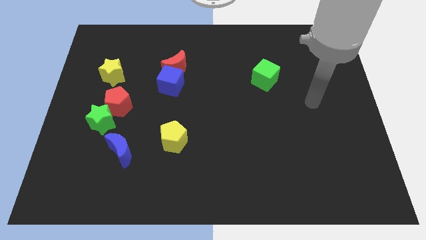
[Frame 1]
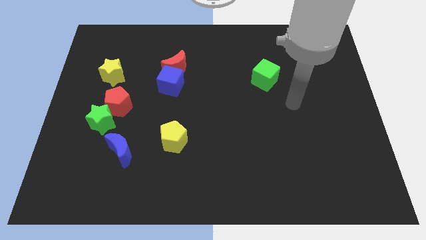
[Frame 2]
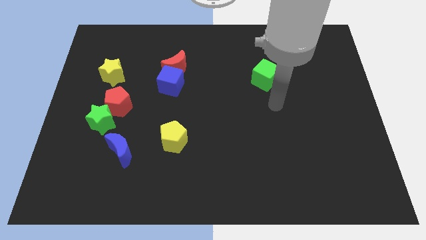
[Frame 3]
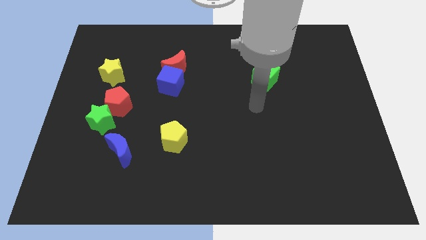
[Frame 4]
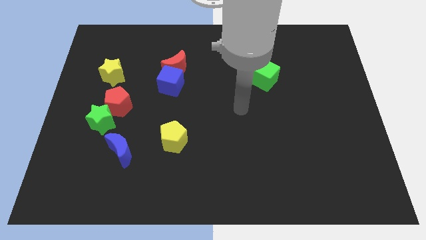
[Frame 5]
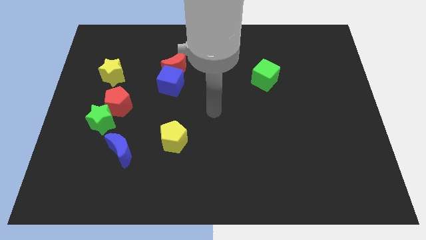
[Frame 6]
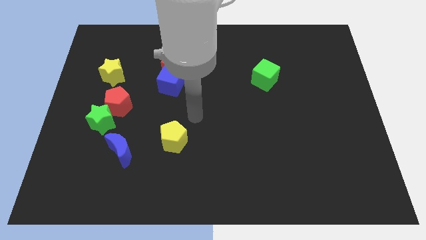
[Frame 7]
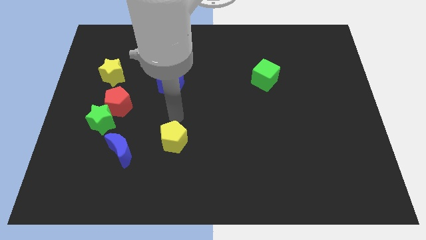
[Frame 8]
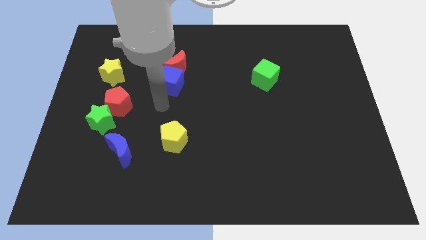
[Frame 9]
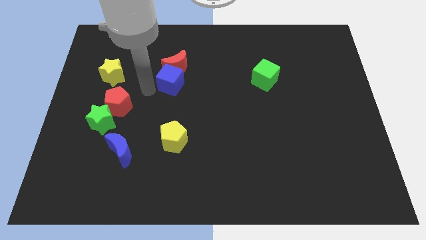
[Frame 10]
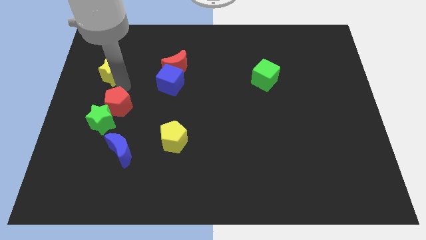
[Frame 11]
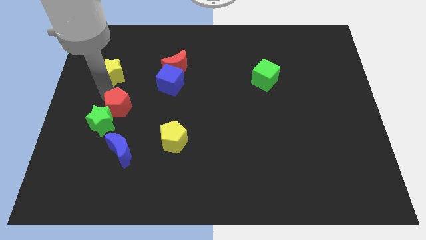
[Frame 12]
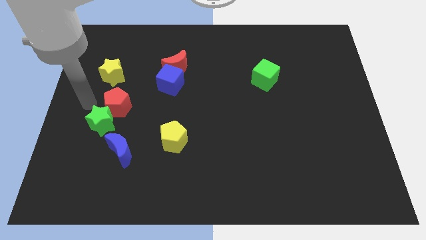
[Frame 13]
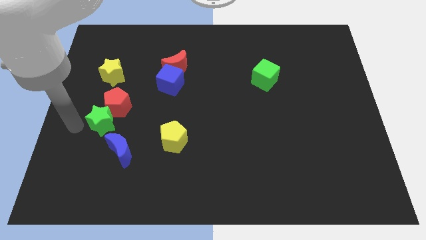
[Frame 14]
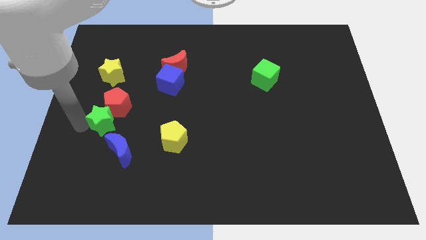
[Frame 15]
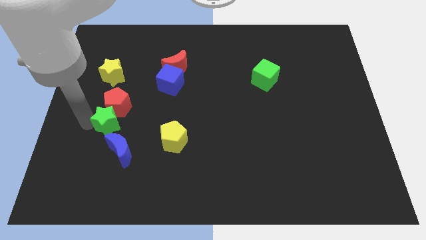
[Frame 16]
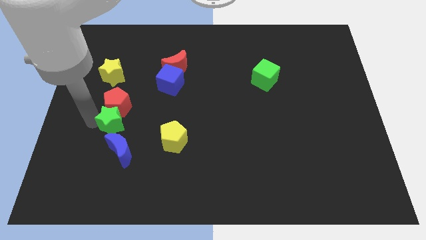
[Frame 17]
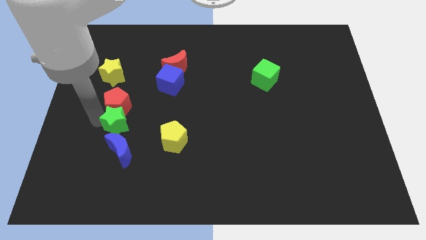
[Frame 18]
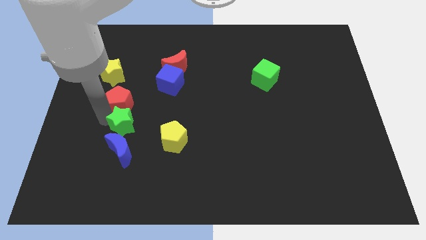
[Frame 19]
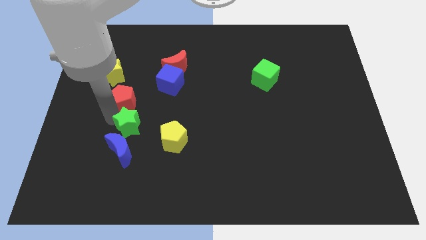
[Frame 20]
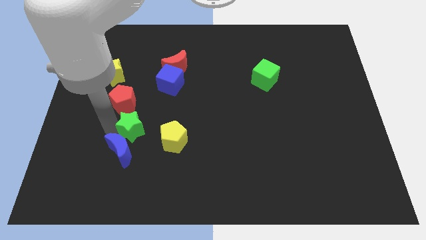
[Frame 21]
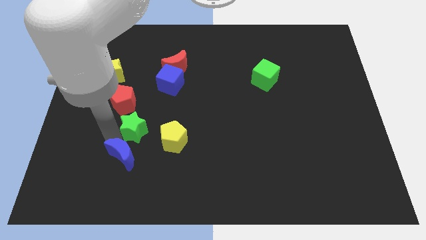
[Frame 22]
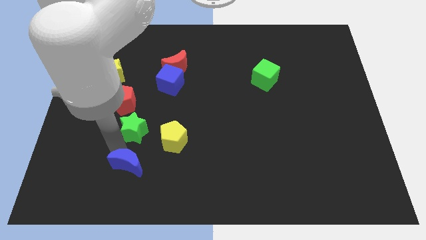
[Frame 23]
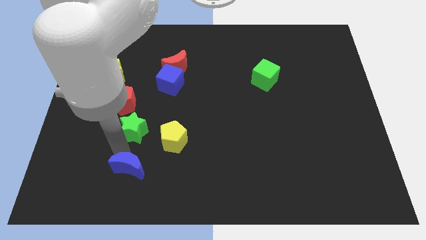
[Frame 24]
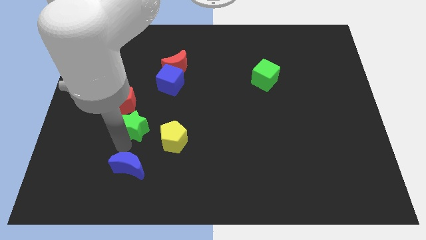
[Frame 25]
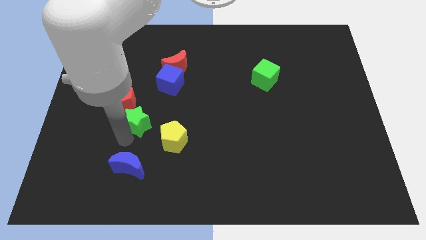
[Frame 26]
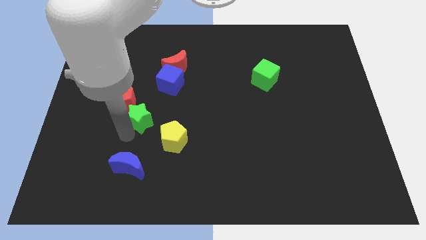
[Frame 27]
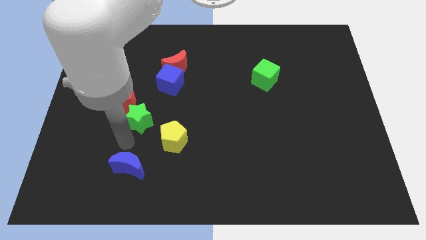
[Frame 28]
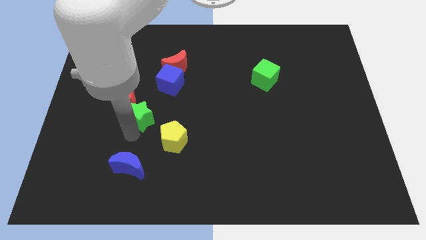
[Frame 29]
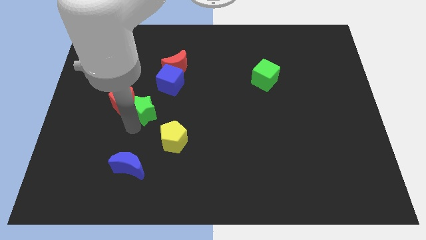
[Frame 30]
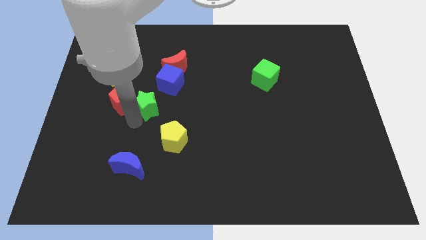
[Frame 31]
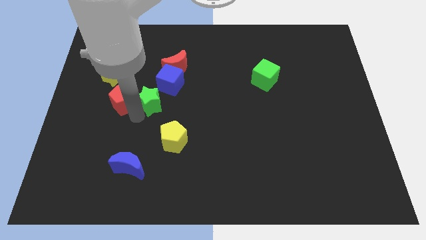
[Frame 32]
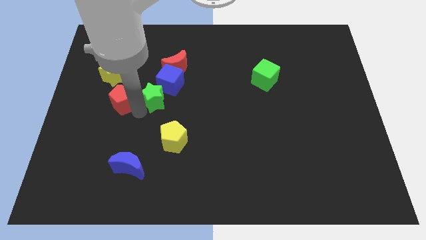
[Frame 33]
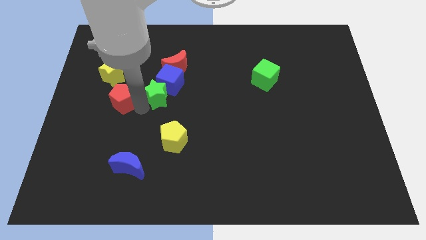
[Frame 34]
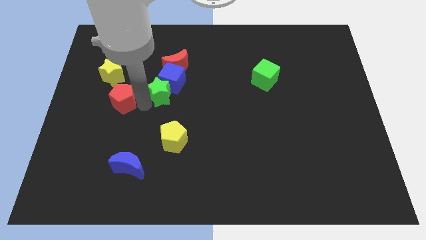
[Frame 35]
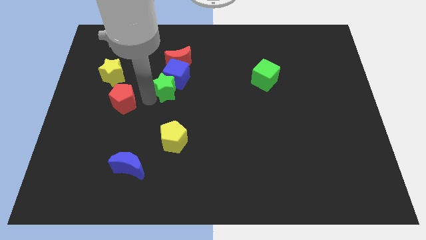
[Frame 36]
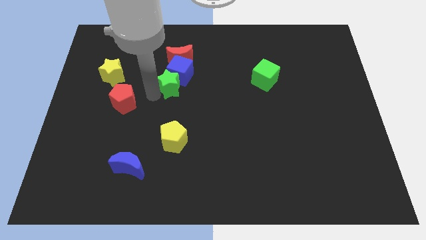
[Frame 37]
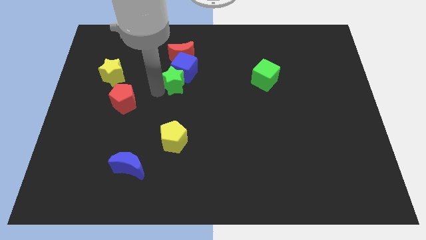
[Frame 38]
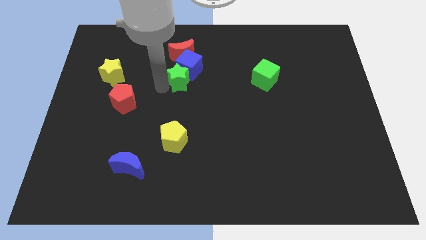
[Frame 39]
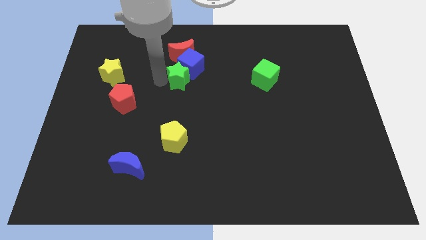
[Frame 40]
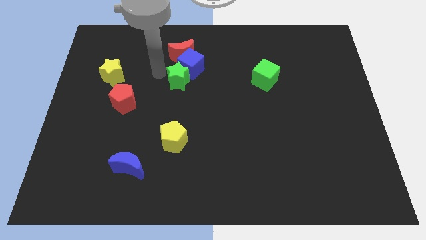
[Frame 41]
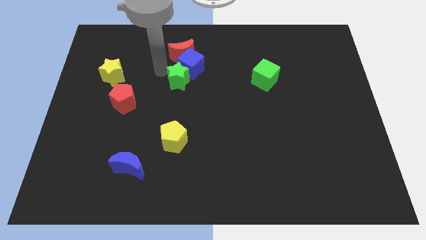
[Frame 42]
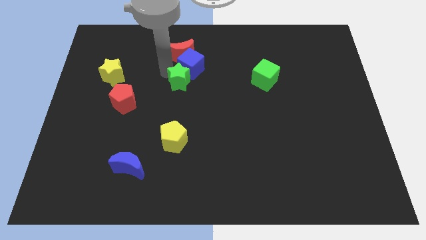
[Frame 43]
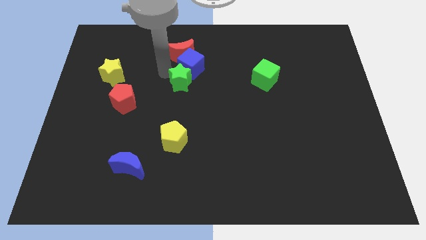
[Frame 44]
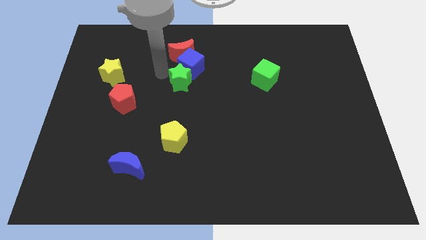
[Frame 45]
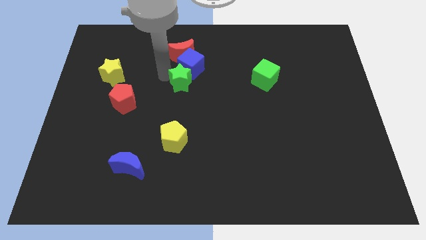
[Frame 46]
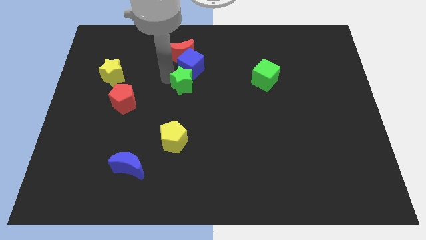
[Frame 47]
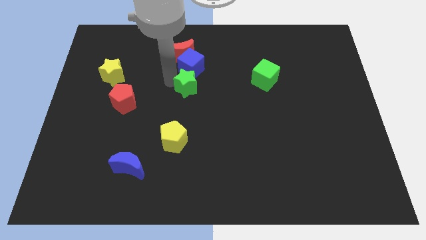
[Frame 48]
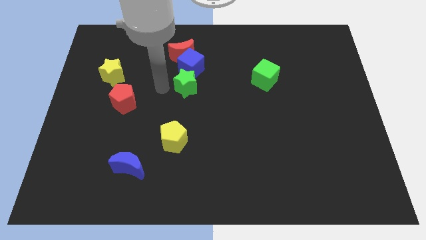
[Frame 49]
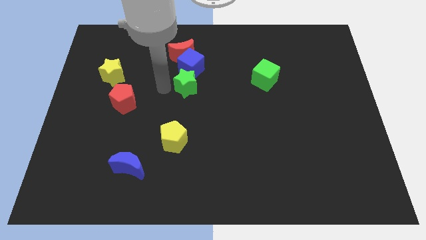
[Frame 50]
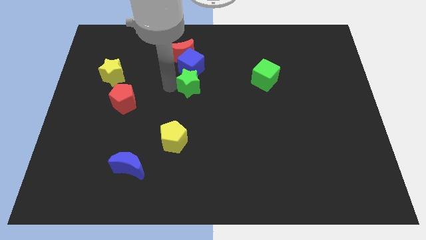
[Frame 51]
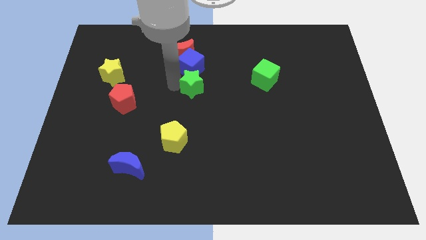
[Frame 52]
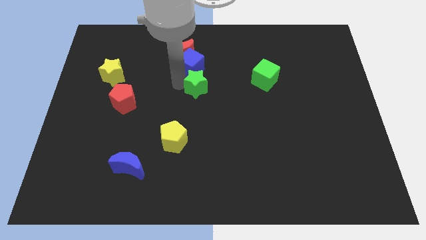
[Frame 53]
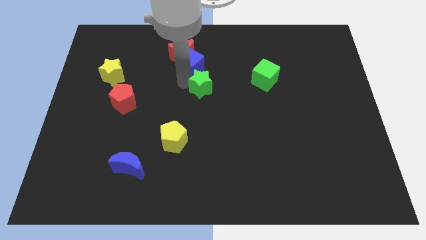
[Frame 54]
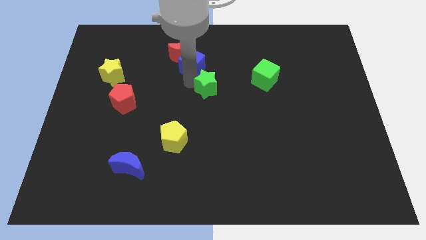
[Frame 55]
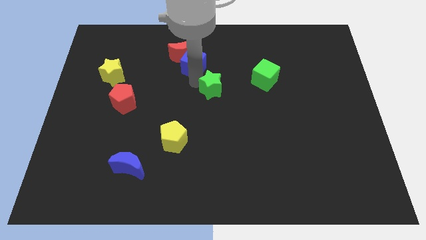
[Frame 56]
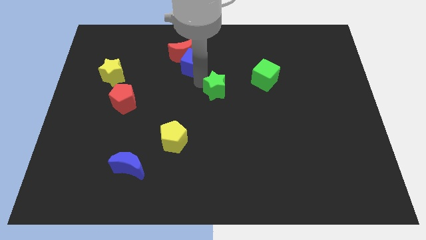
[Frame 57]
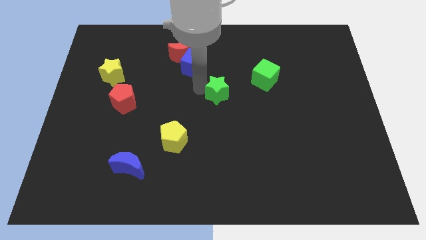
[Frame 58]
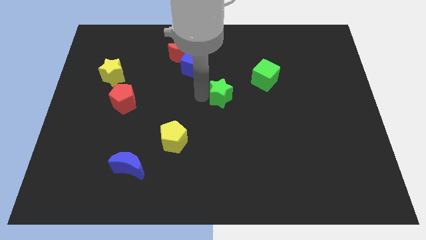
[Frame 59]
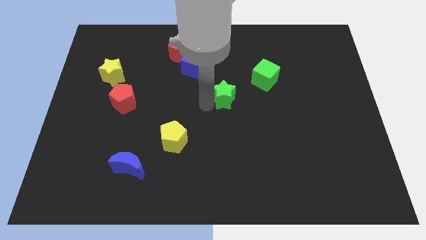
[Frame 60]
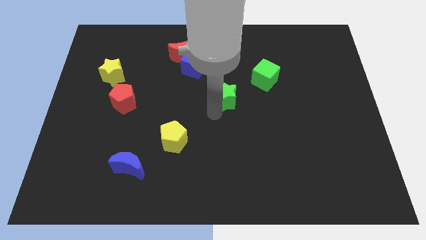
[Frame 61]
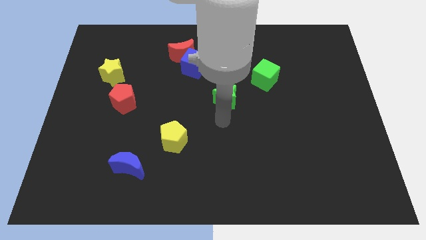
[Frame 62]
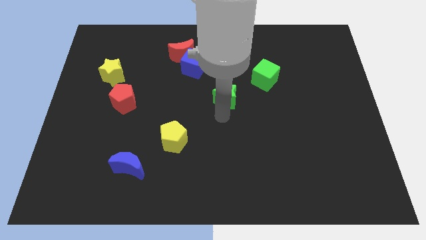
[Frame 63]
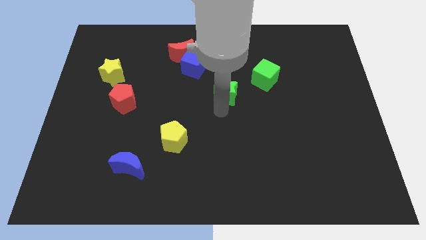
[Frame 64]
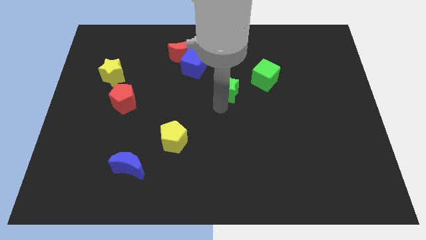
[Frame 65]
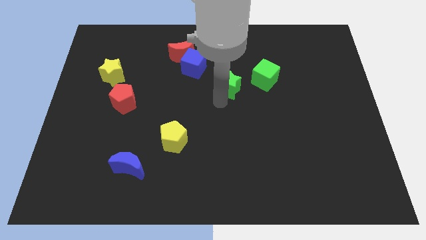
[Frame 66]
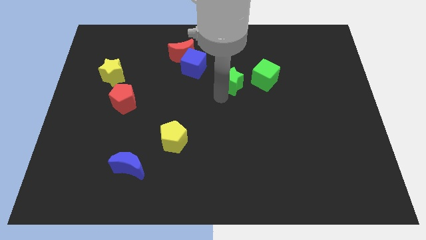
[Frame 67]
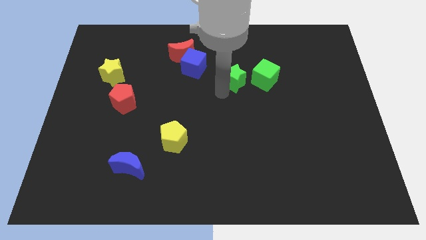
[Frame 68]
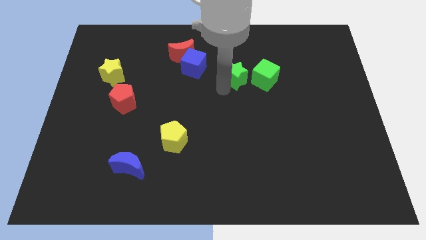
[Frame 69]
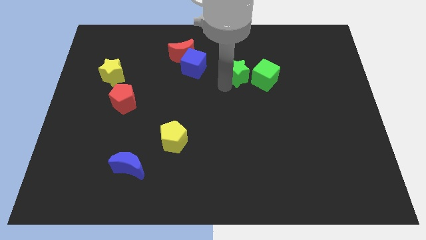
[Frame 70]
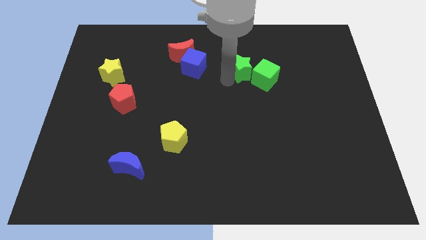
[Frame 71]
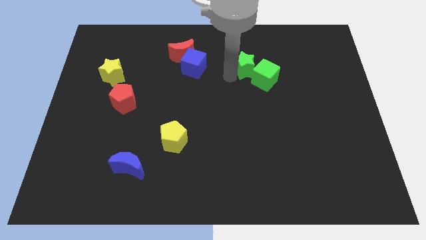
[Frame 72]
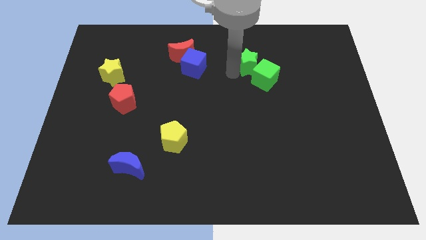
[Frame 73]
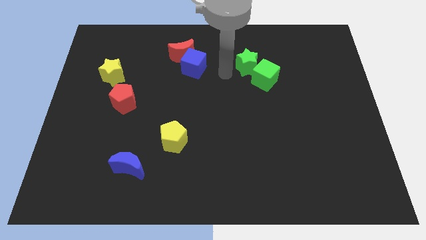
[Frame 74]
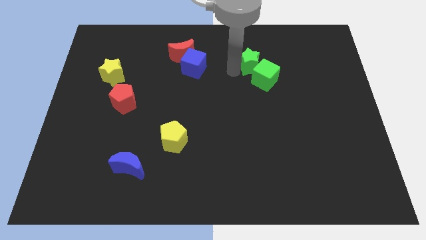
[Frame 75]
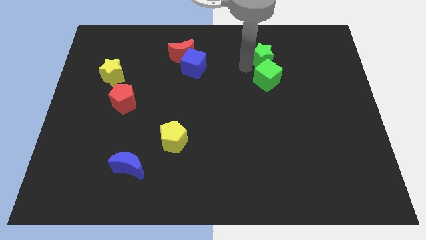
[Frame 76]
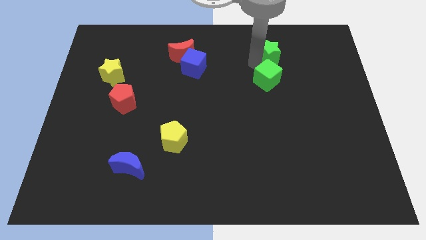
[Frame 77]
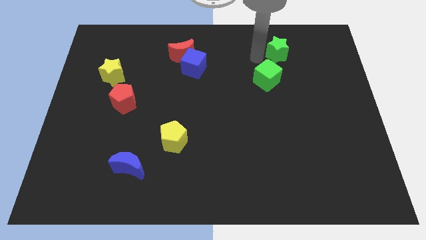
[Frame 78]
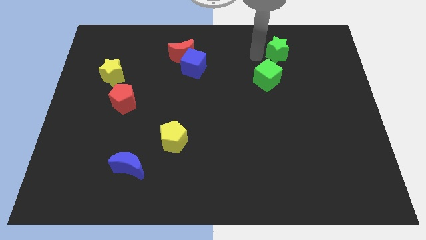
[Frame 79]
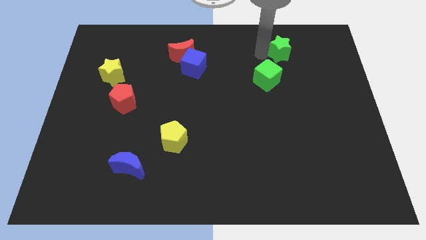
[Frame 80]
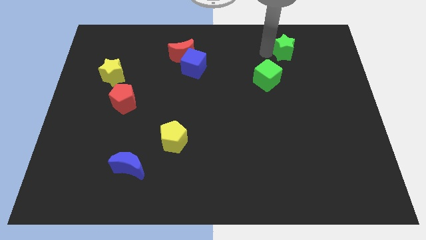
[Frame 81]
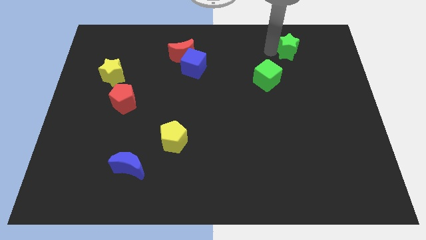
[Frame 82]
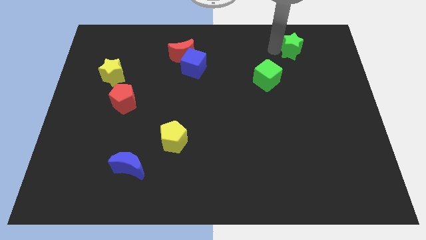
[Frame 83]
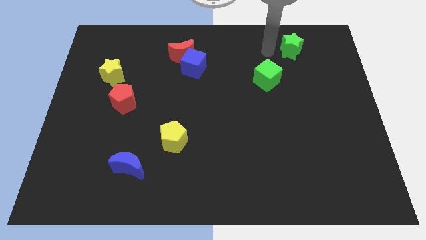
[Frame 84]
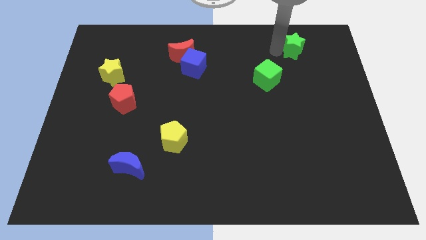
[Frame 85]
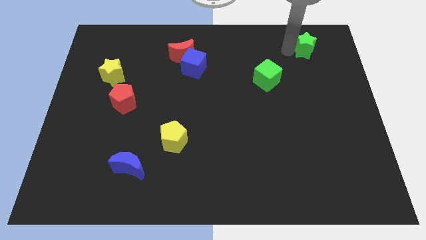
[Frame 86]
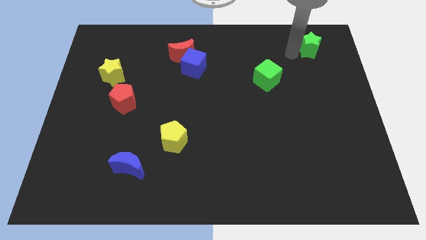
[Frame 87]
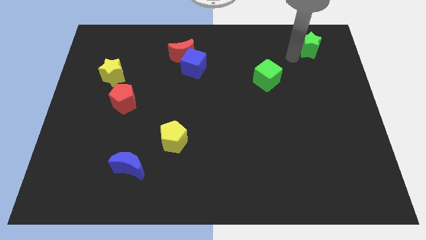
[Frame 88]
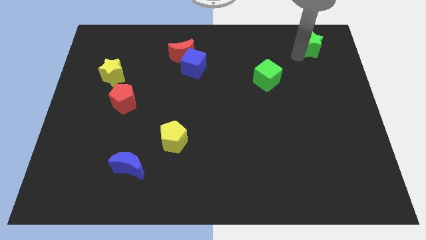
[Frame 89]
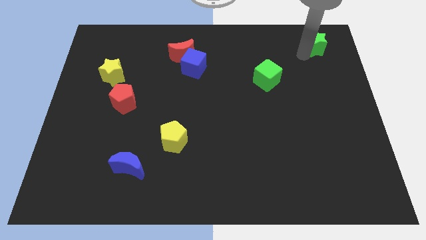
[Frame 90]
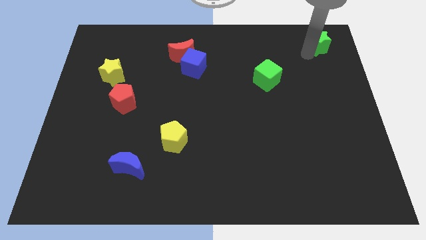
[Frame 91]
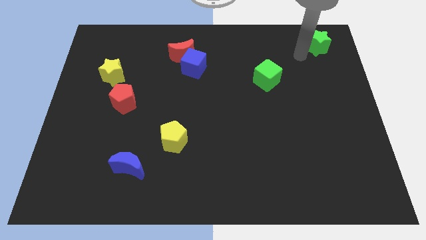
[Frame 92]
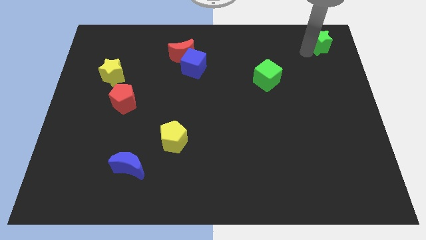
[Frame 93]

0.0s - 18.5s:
push the green star to the top right
